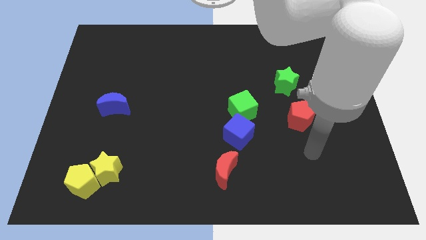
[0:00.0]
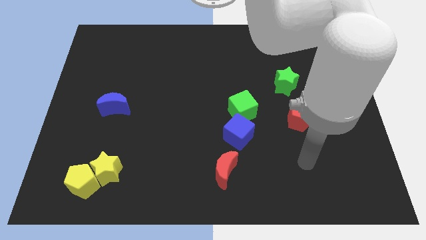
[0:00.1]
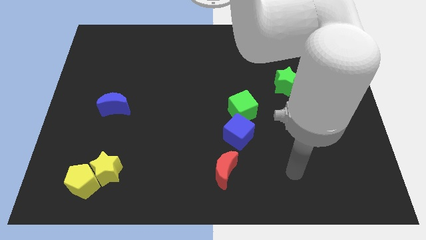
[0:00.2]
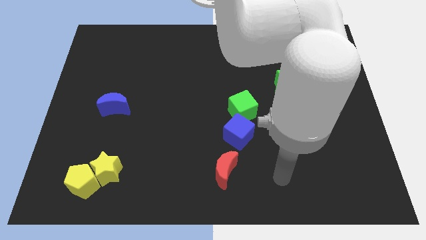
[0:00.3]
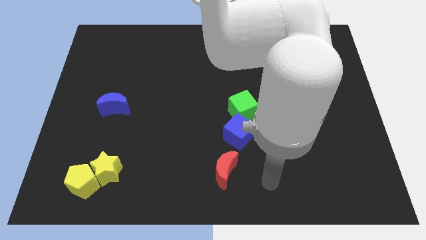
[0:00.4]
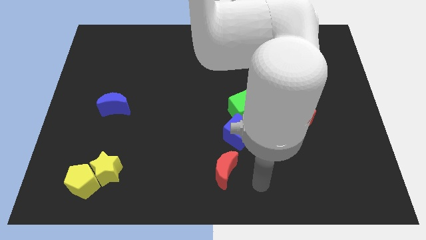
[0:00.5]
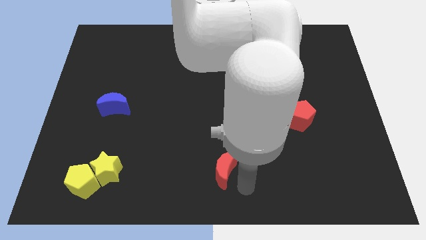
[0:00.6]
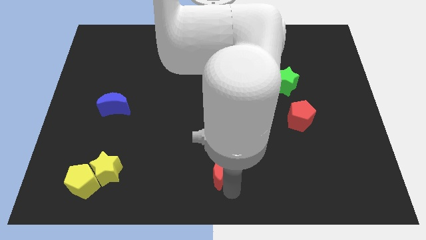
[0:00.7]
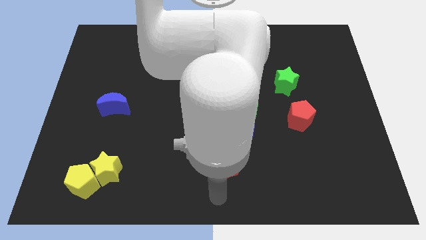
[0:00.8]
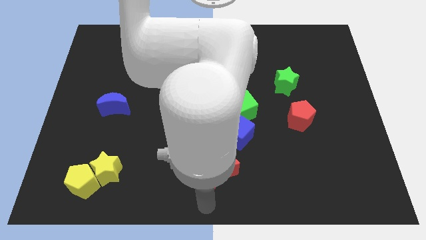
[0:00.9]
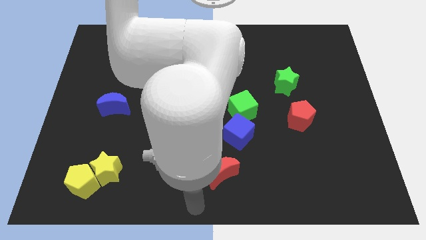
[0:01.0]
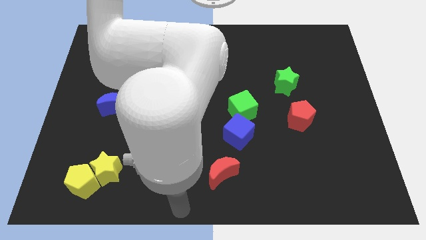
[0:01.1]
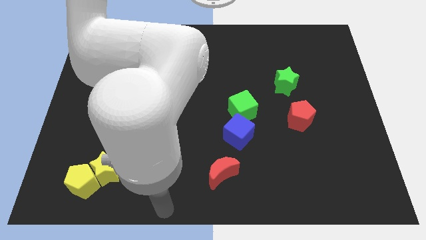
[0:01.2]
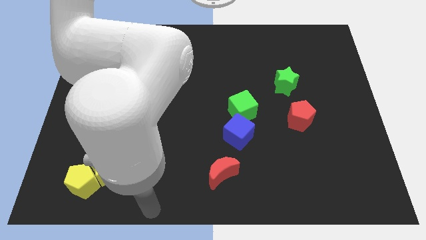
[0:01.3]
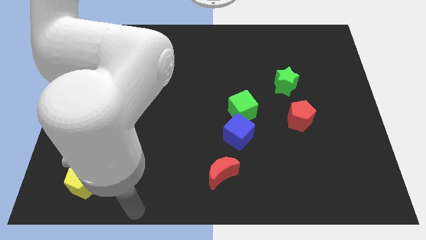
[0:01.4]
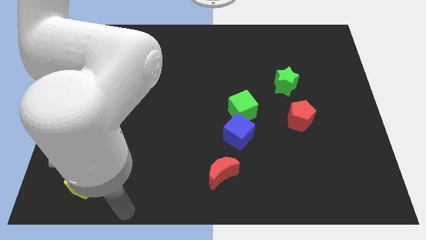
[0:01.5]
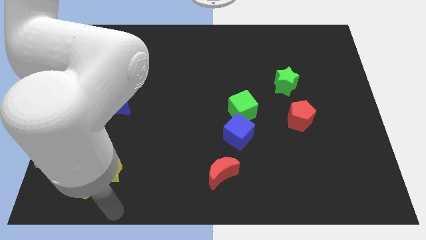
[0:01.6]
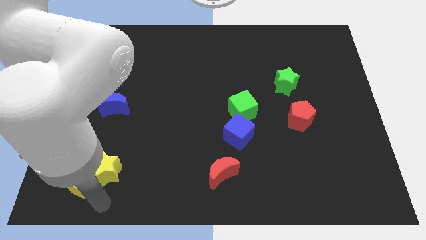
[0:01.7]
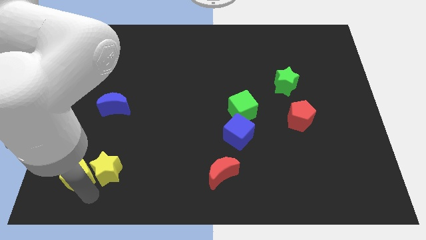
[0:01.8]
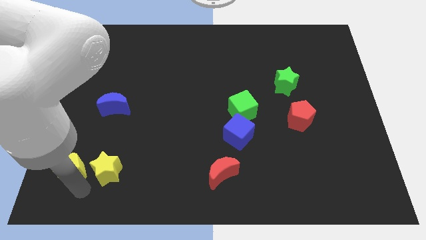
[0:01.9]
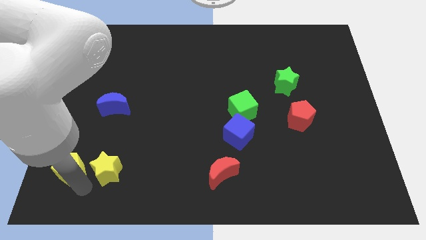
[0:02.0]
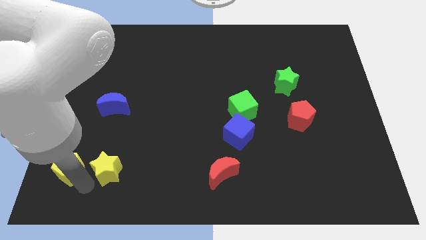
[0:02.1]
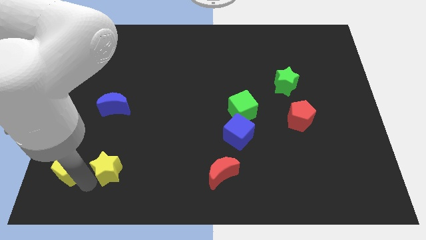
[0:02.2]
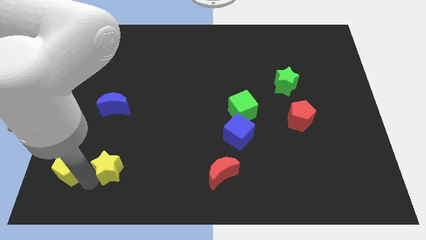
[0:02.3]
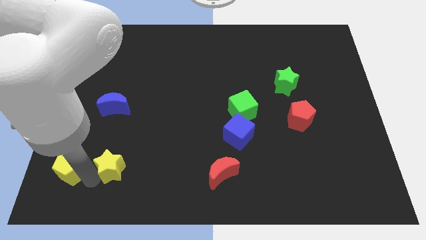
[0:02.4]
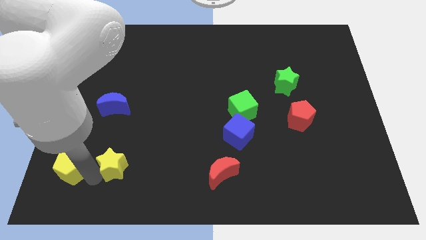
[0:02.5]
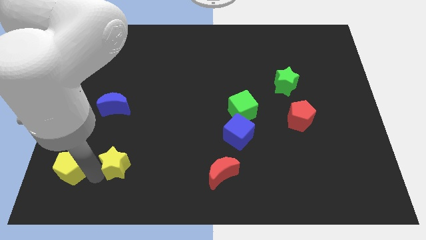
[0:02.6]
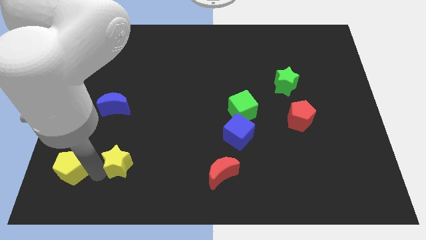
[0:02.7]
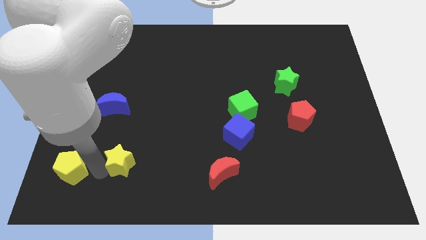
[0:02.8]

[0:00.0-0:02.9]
move the yellow star away from the yellow pentagon

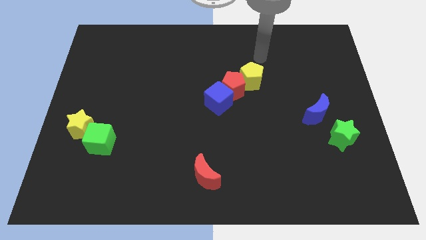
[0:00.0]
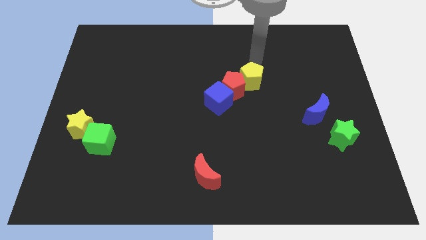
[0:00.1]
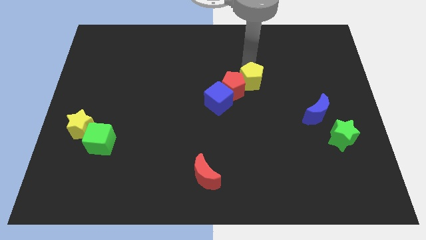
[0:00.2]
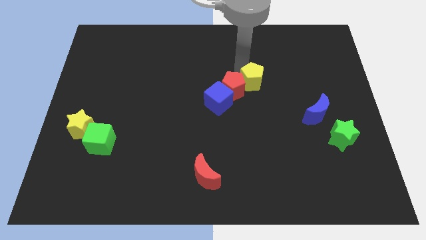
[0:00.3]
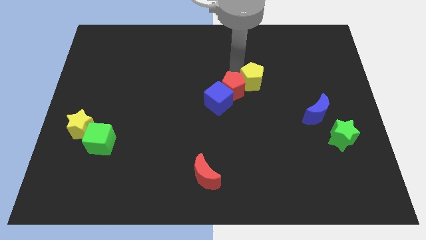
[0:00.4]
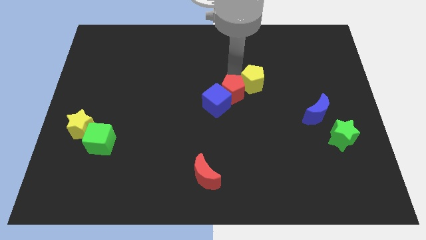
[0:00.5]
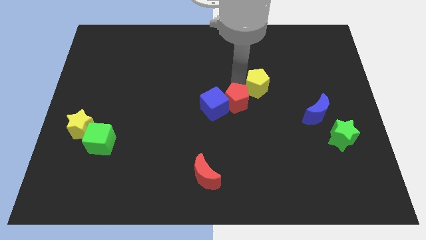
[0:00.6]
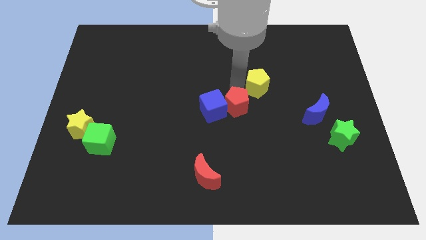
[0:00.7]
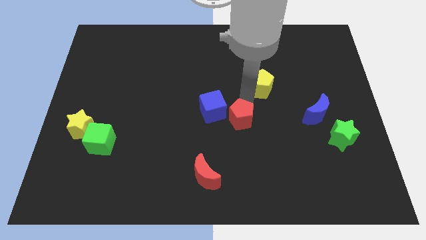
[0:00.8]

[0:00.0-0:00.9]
pull the yellow pentagon apart from the red pentagon

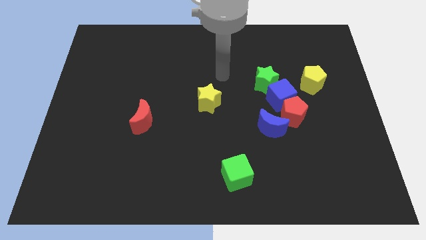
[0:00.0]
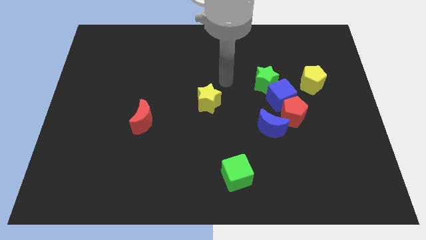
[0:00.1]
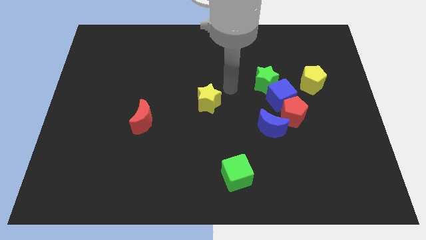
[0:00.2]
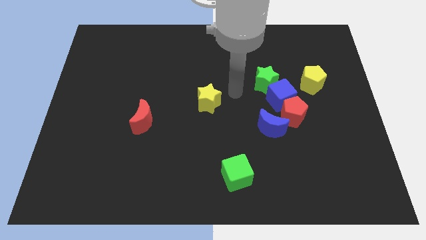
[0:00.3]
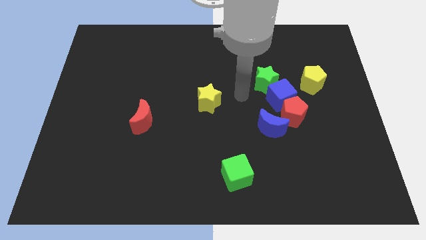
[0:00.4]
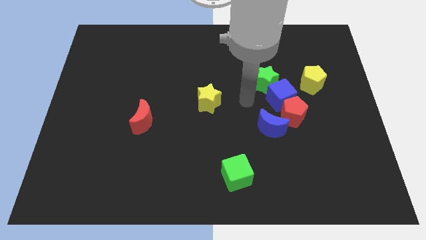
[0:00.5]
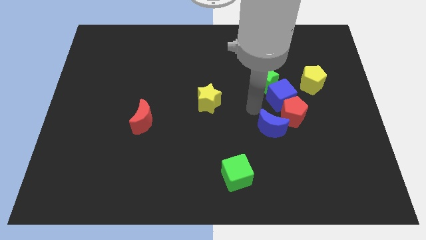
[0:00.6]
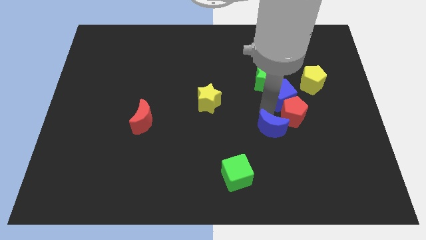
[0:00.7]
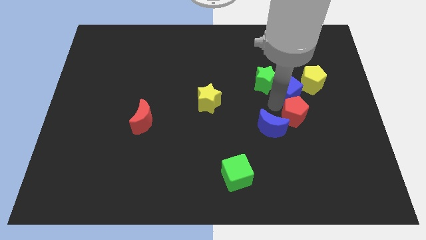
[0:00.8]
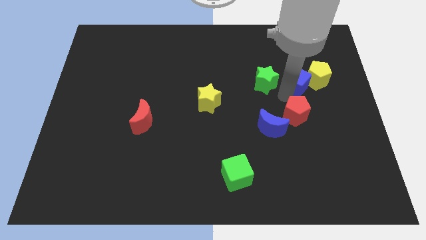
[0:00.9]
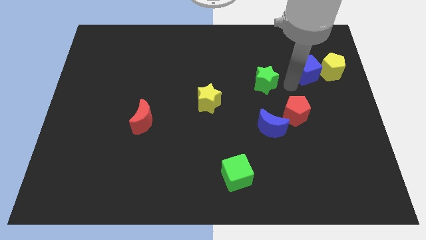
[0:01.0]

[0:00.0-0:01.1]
move the green star away from the blue cube

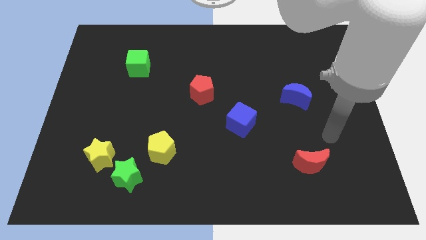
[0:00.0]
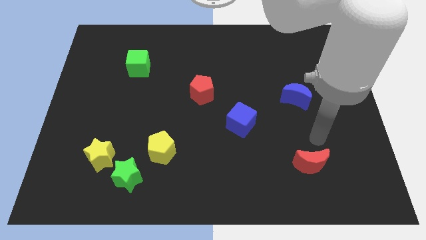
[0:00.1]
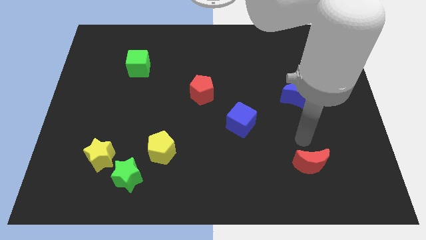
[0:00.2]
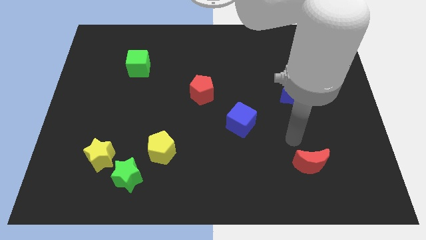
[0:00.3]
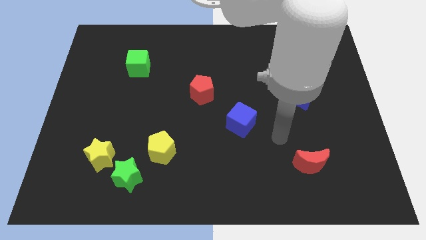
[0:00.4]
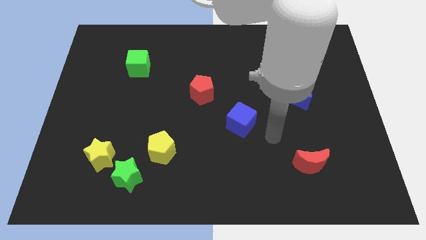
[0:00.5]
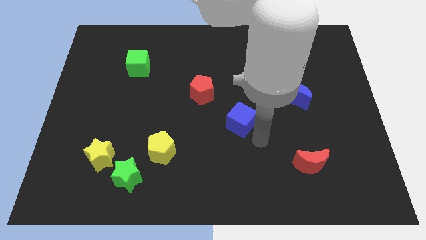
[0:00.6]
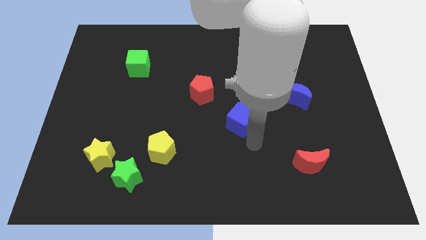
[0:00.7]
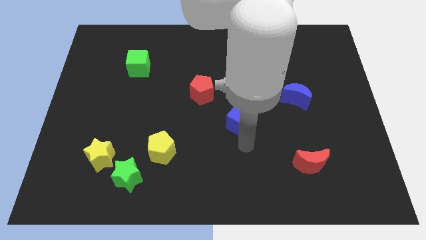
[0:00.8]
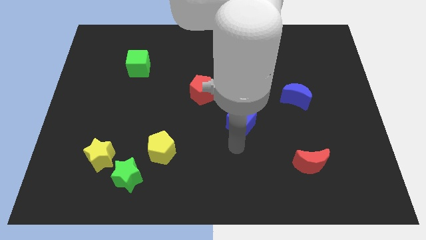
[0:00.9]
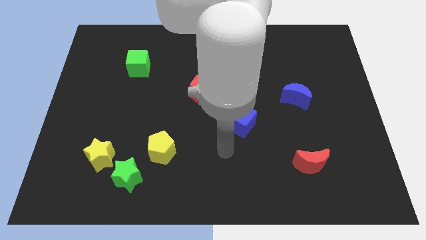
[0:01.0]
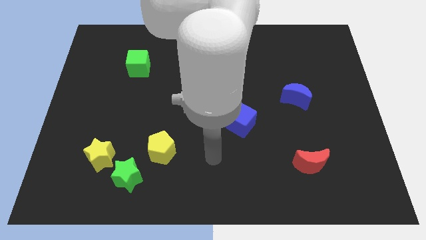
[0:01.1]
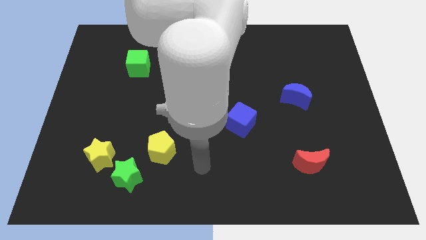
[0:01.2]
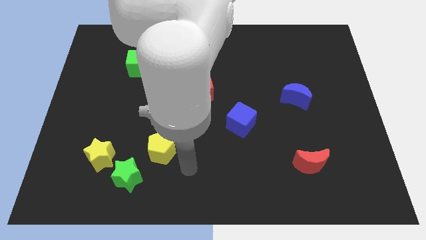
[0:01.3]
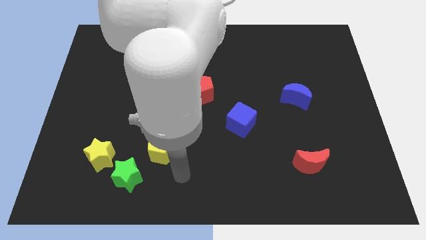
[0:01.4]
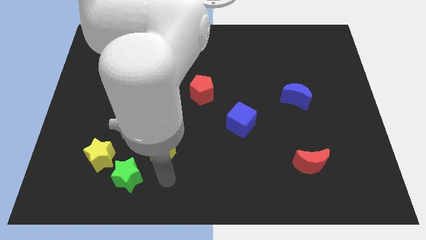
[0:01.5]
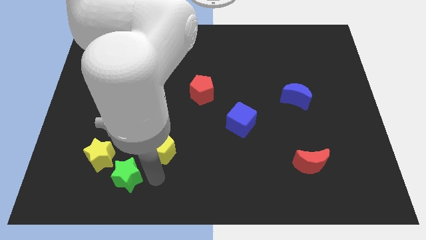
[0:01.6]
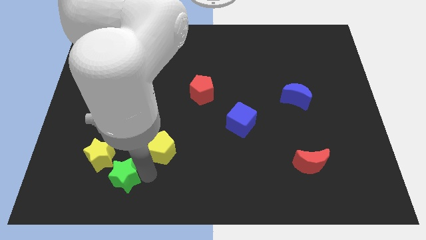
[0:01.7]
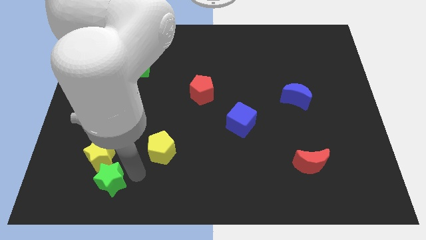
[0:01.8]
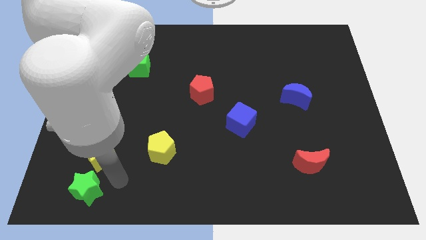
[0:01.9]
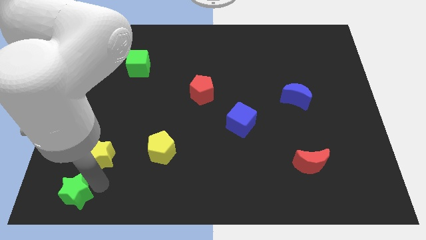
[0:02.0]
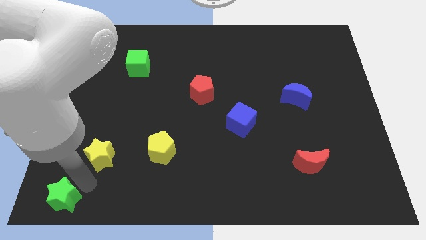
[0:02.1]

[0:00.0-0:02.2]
separate the yellow star from the green star

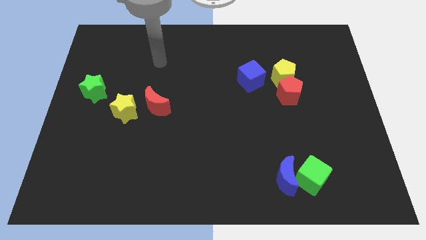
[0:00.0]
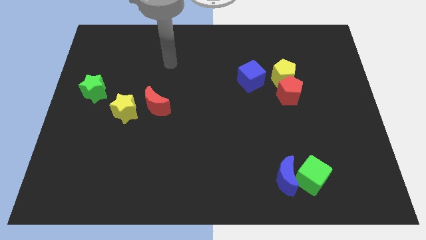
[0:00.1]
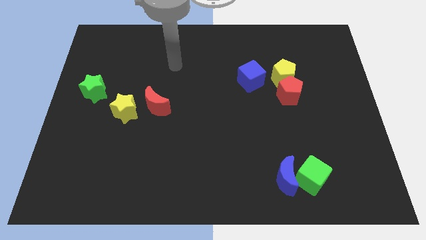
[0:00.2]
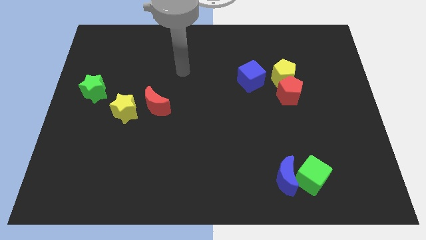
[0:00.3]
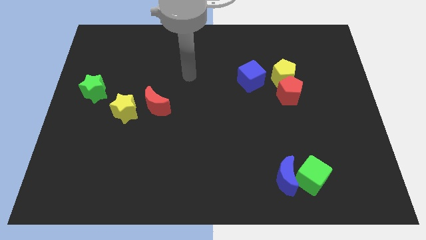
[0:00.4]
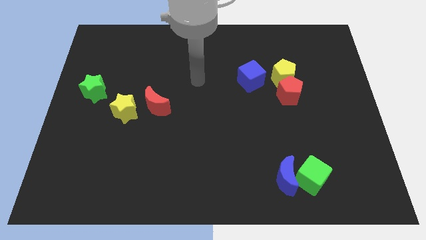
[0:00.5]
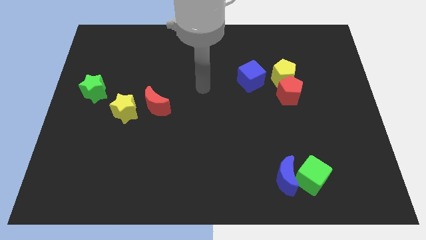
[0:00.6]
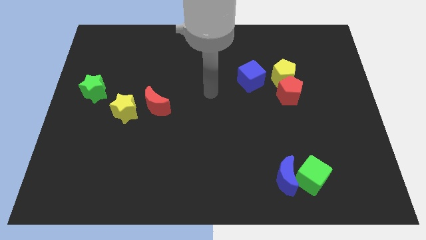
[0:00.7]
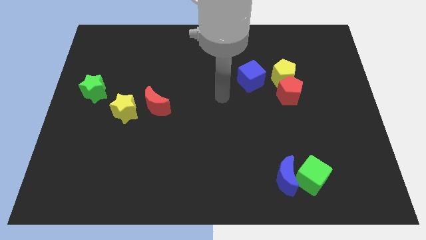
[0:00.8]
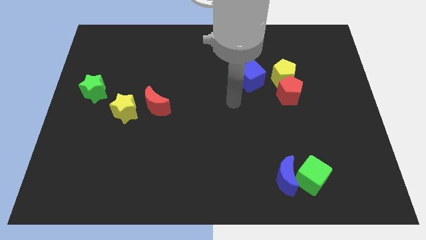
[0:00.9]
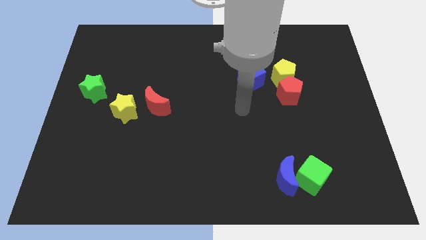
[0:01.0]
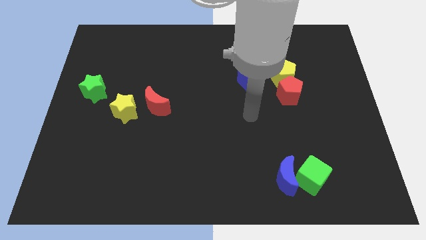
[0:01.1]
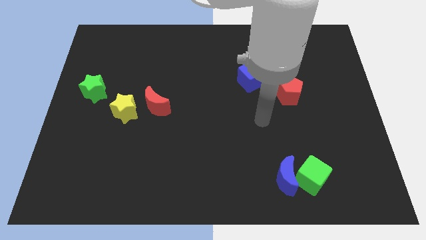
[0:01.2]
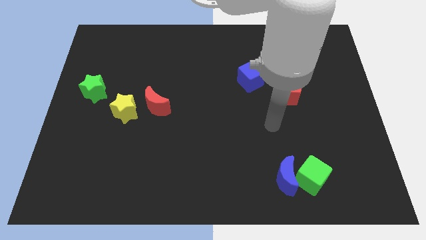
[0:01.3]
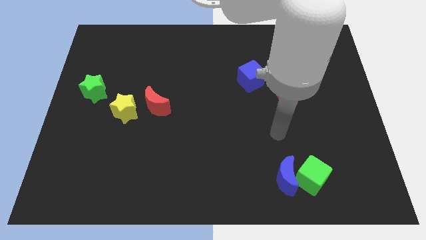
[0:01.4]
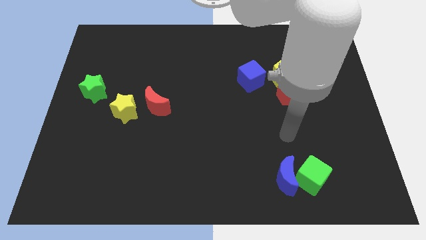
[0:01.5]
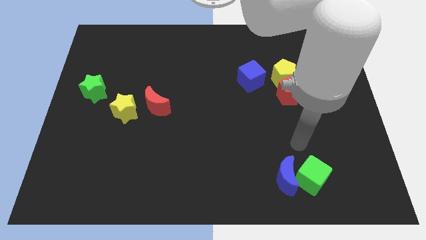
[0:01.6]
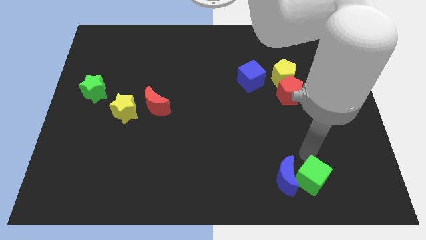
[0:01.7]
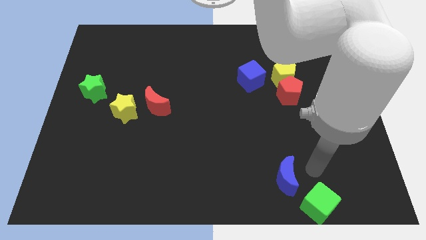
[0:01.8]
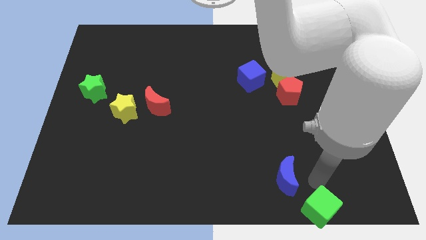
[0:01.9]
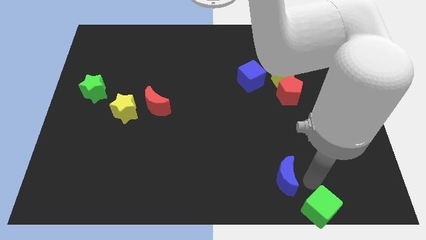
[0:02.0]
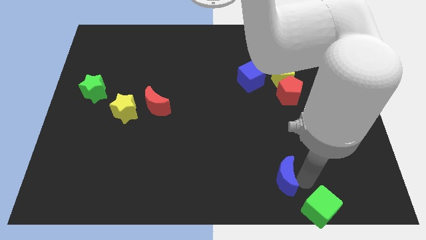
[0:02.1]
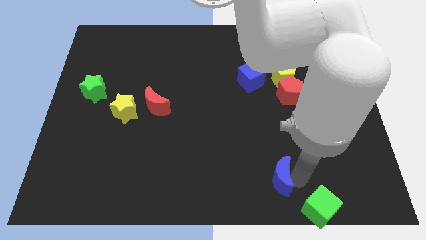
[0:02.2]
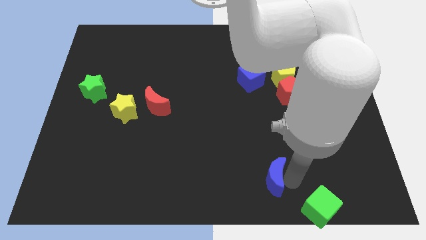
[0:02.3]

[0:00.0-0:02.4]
separate the blue moon from the green cube
